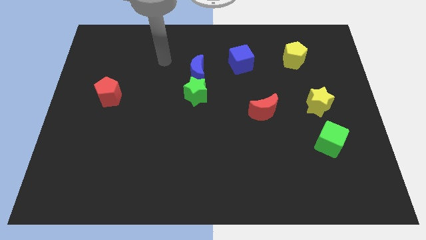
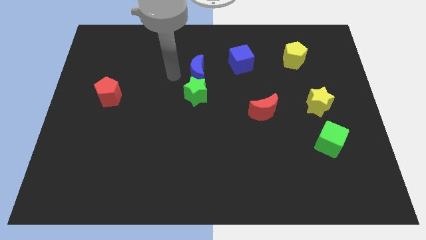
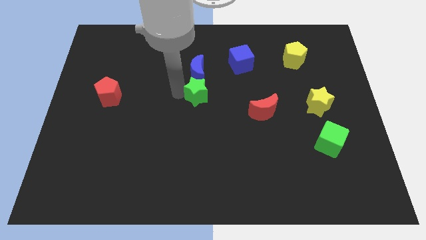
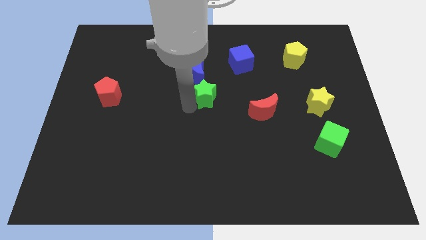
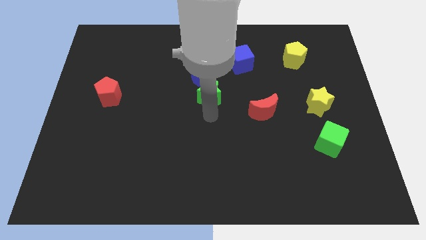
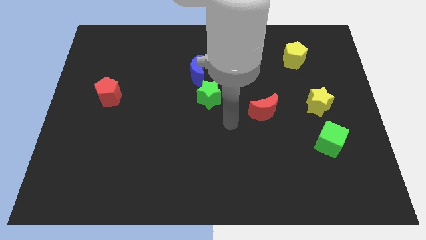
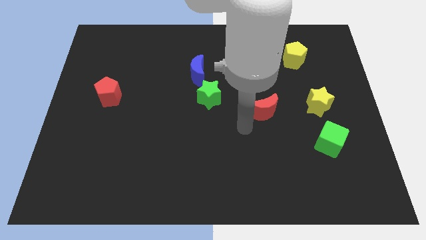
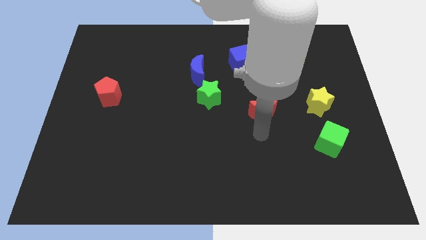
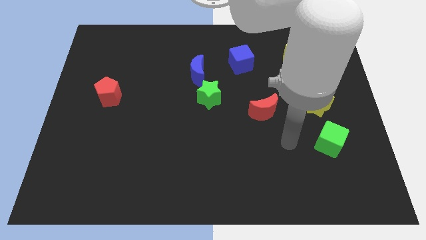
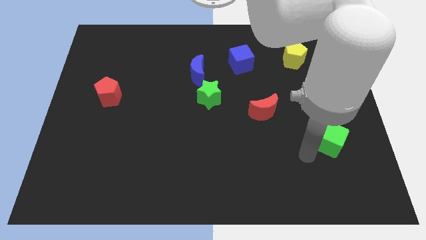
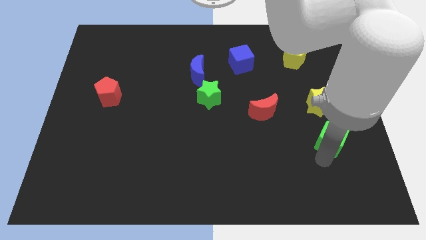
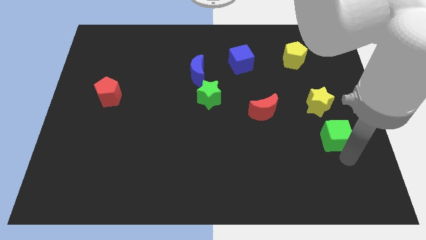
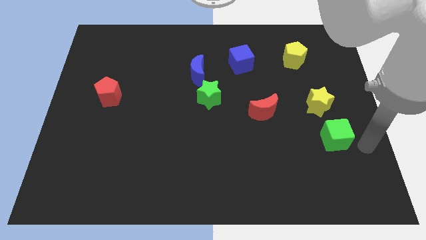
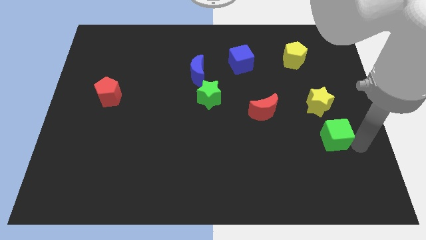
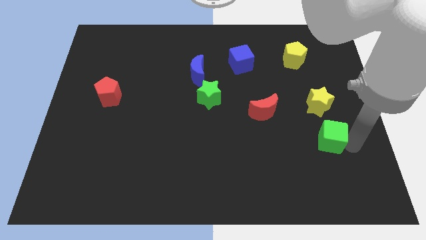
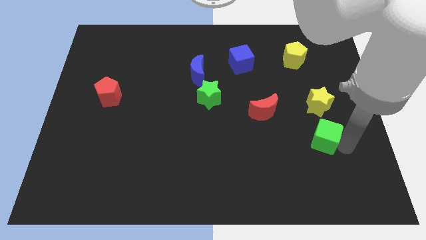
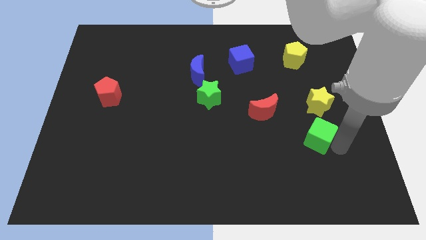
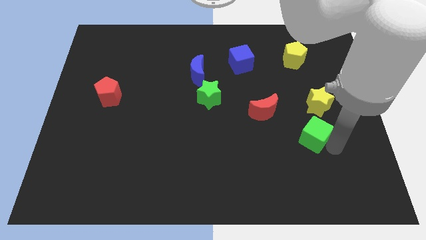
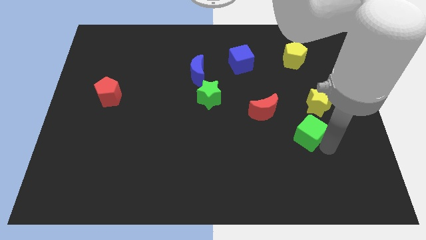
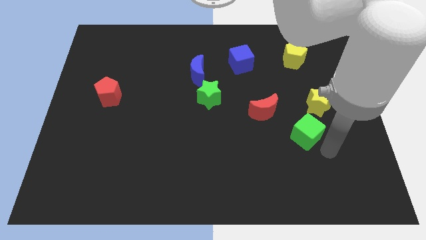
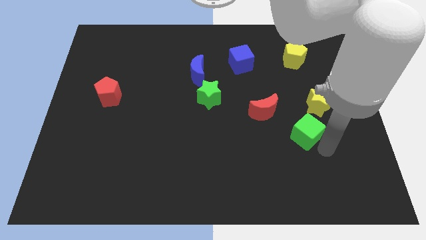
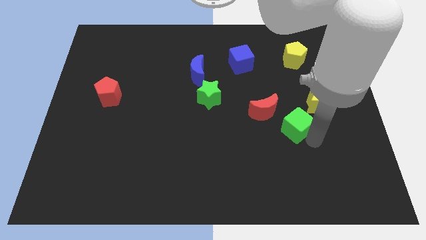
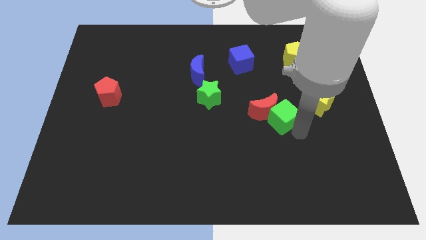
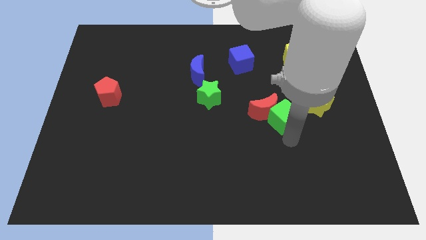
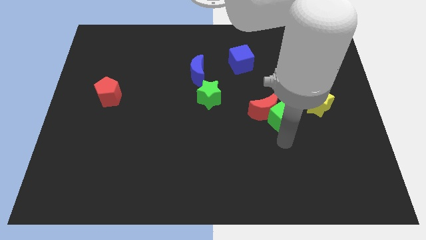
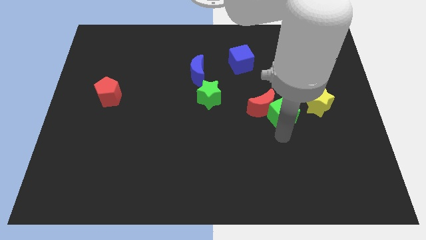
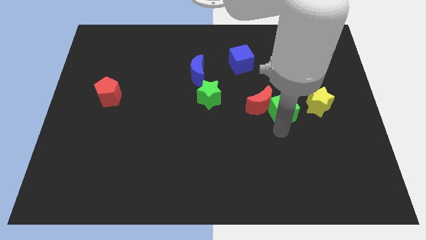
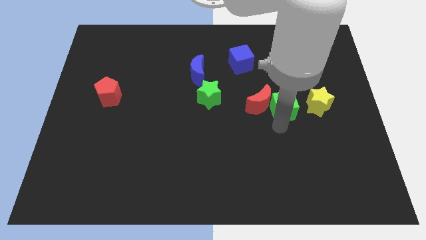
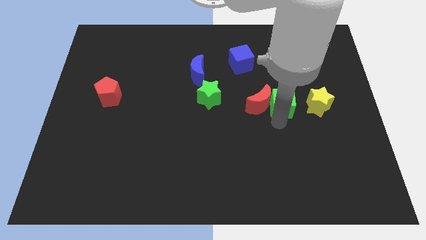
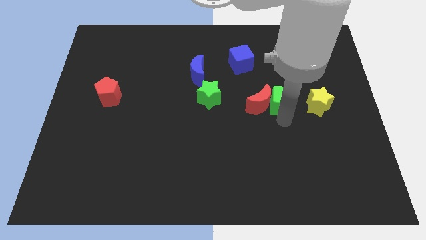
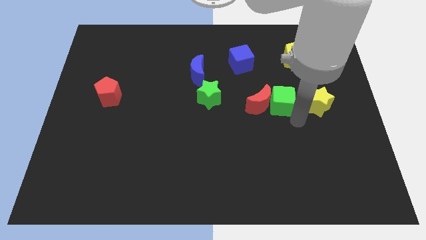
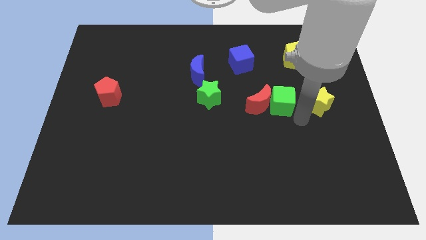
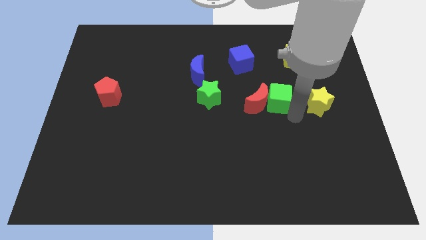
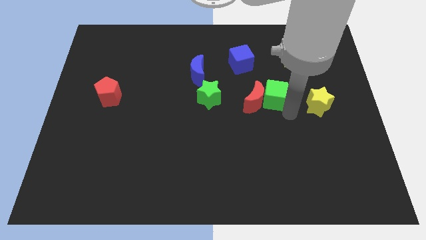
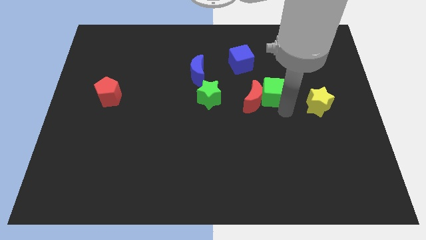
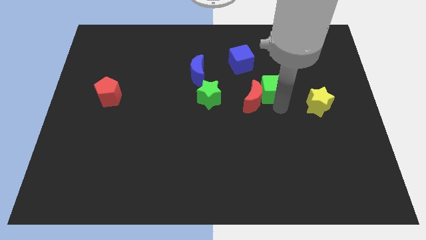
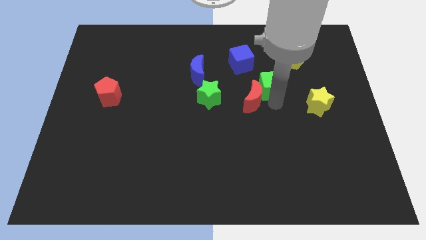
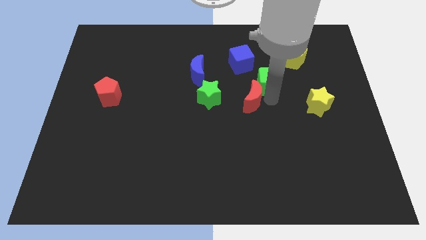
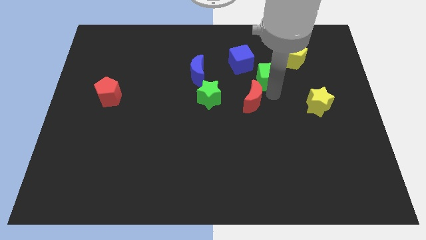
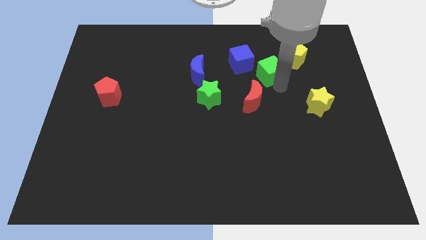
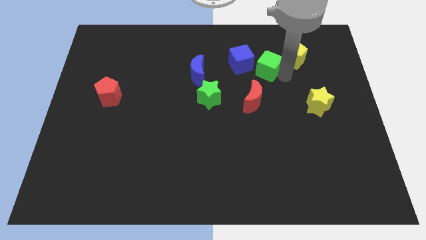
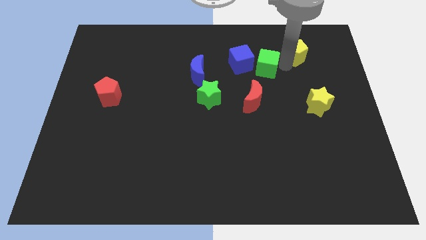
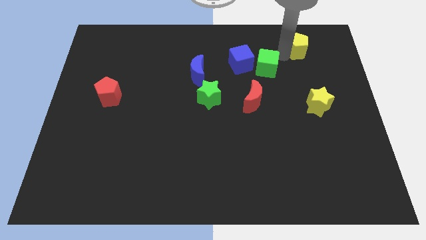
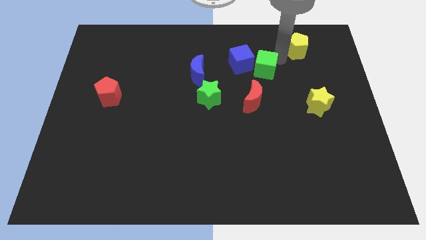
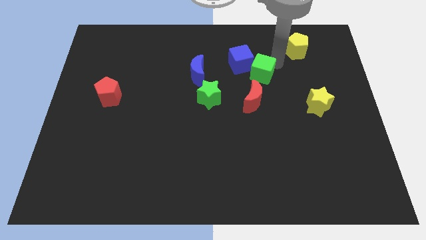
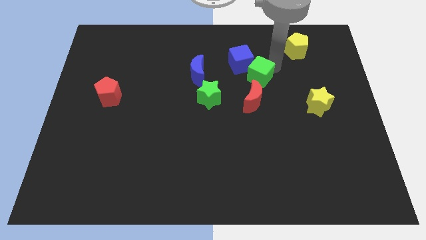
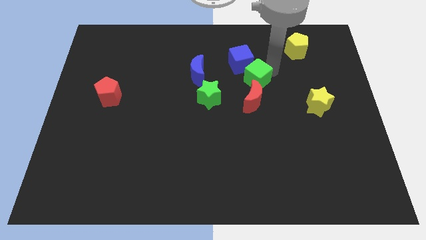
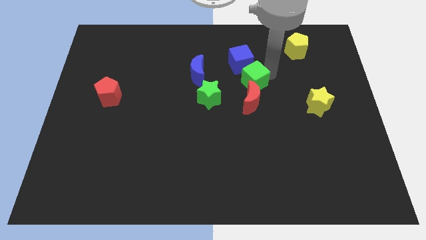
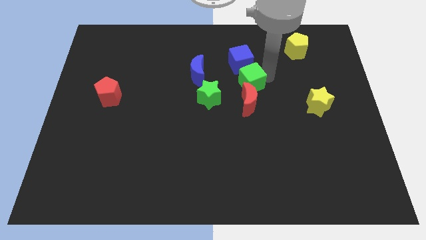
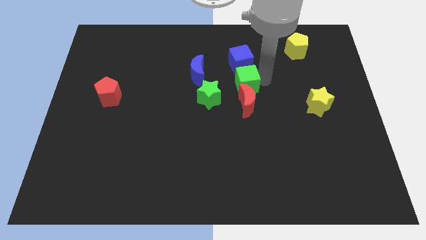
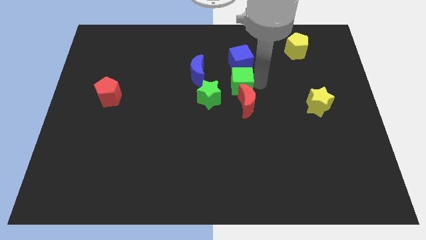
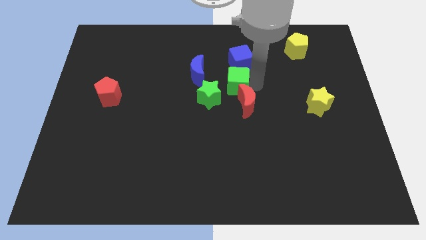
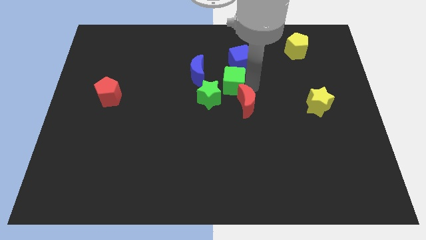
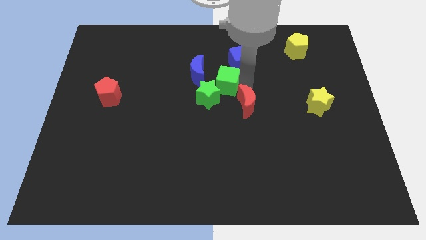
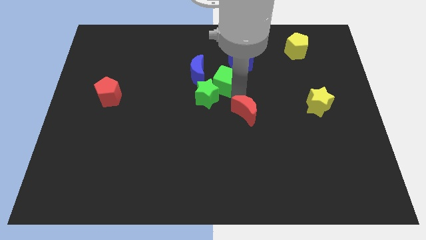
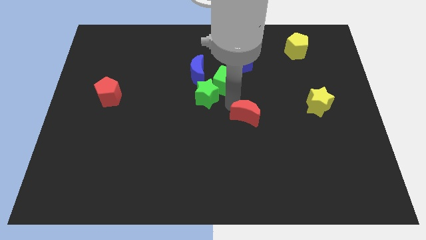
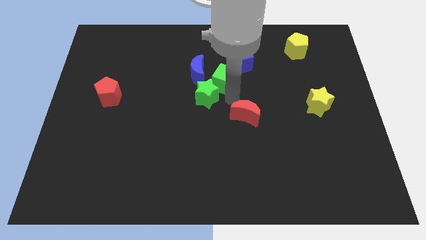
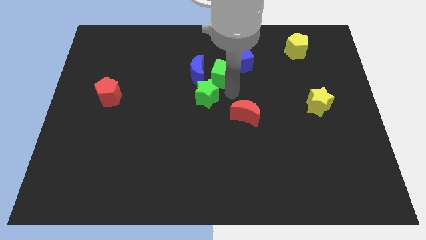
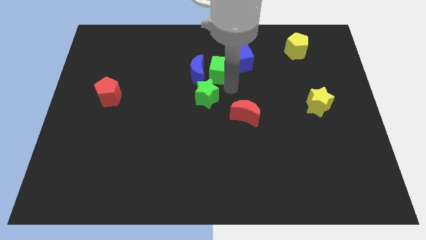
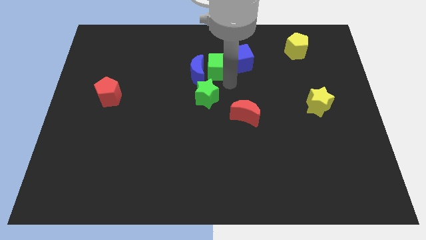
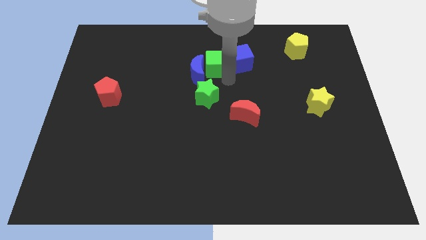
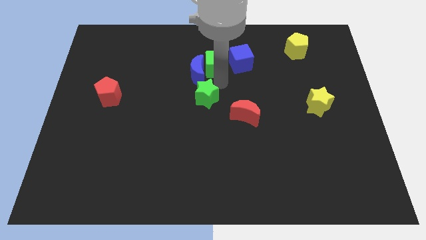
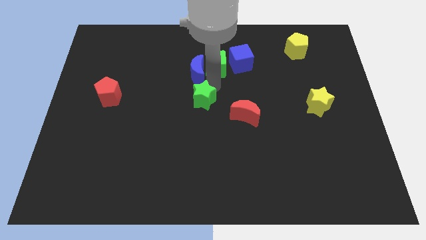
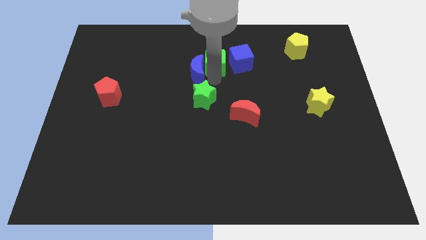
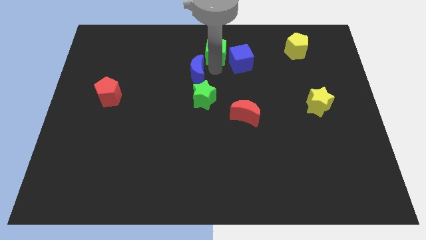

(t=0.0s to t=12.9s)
push the green cube to the towards your base
